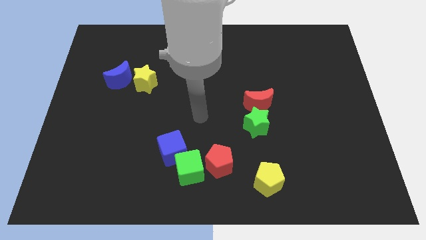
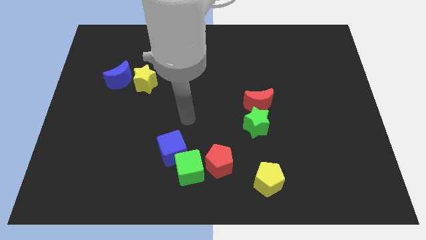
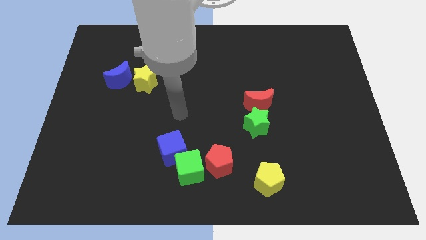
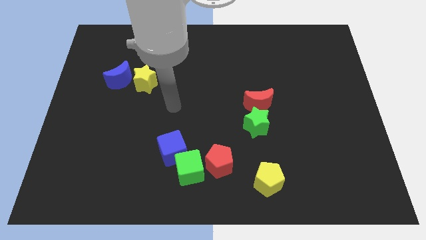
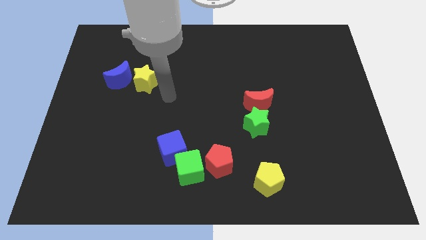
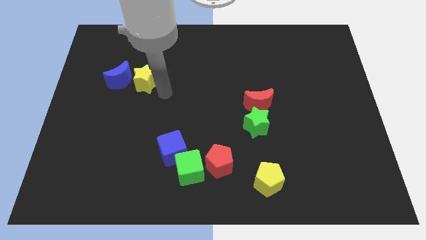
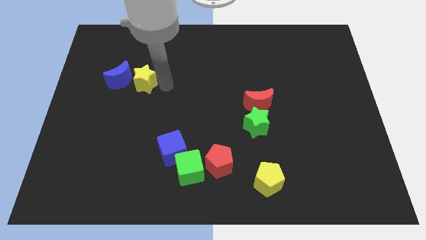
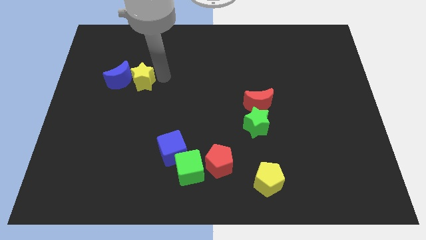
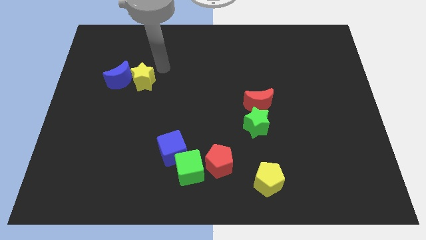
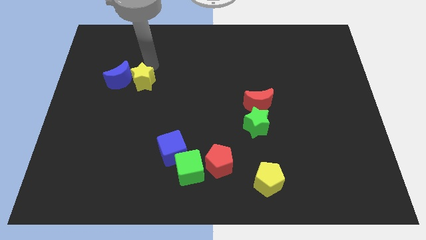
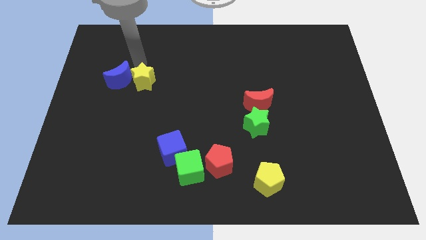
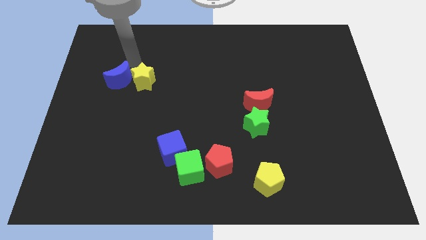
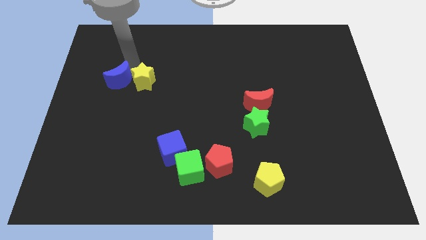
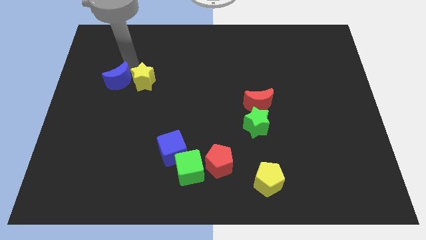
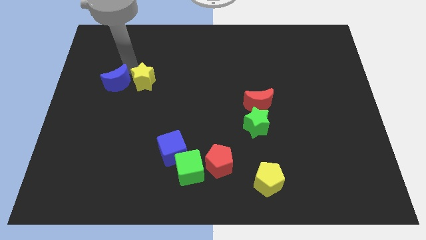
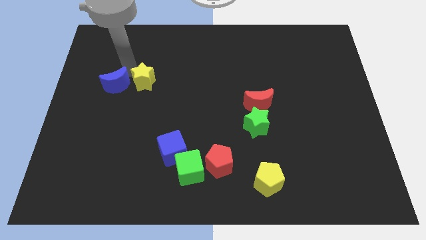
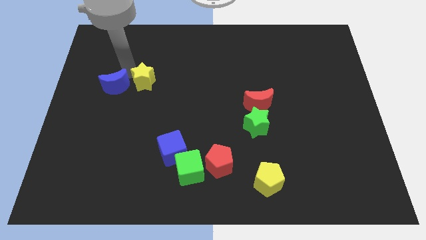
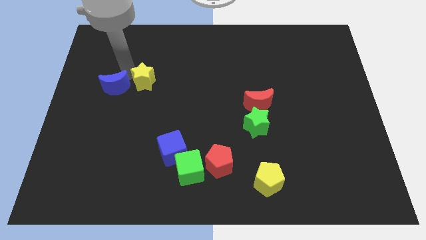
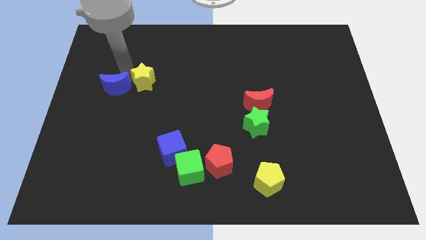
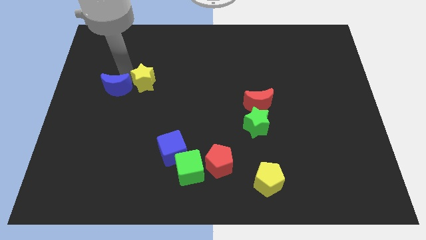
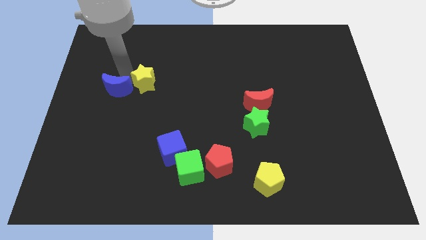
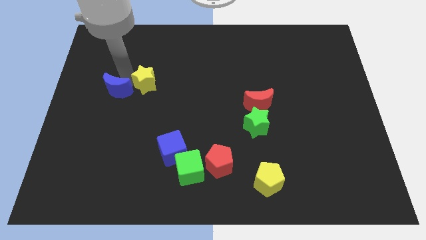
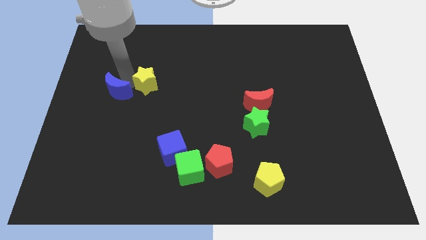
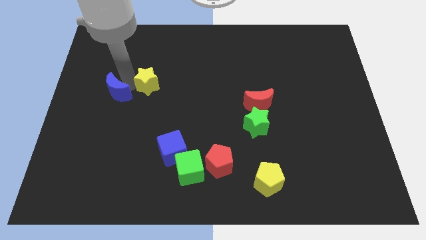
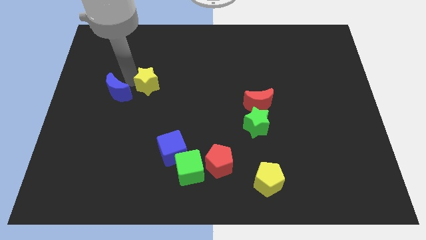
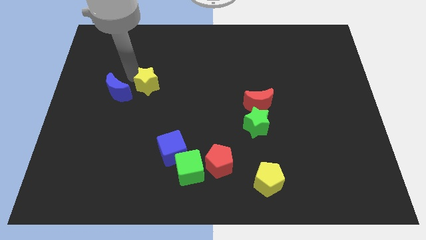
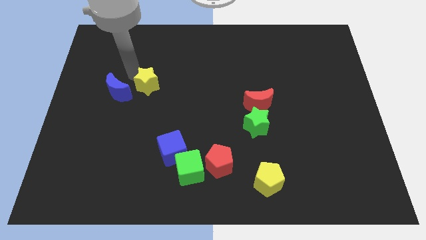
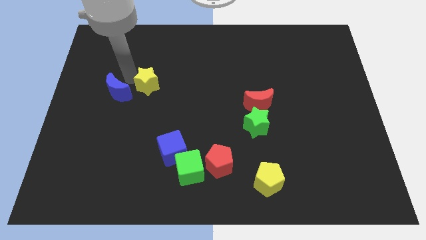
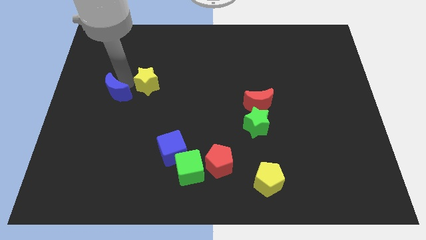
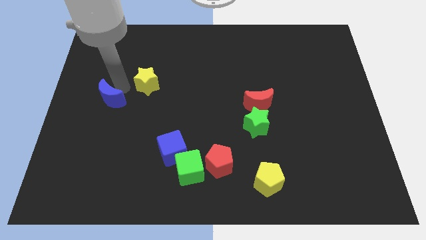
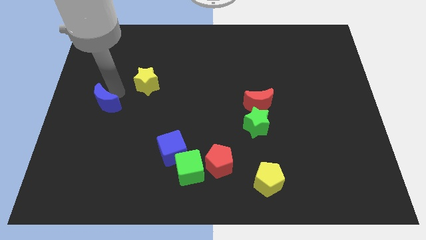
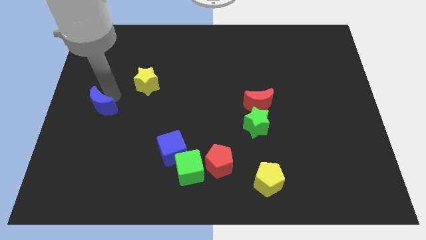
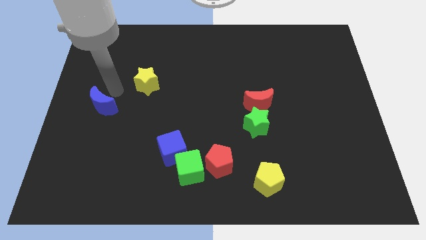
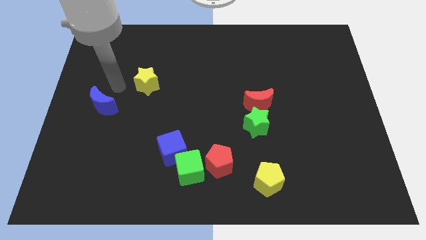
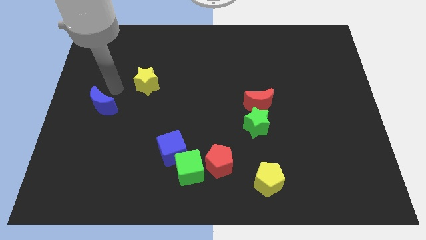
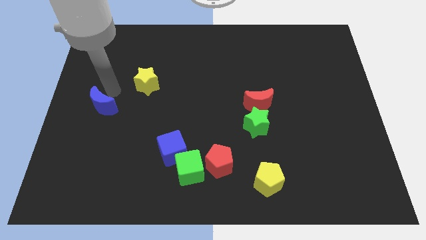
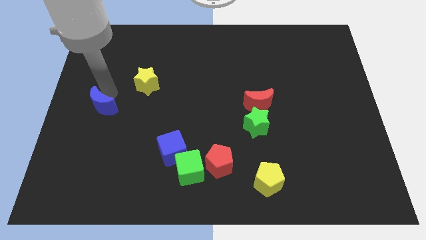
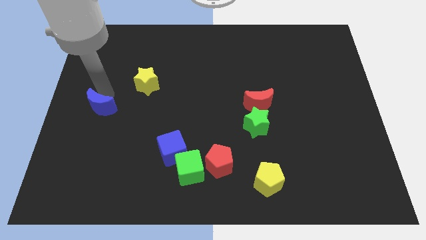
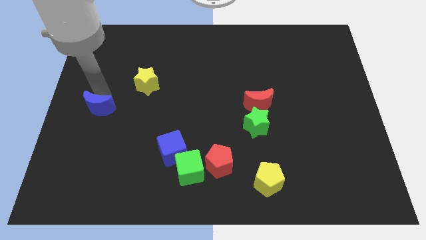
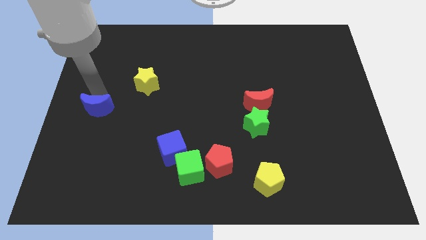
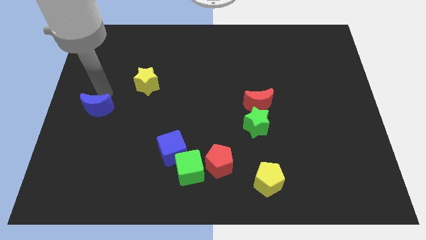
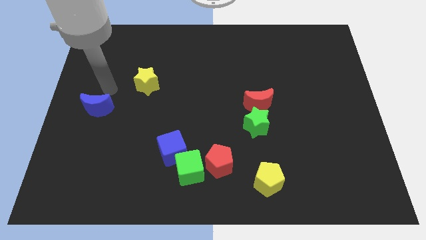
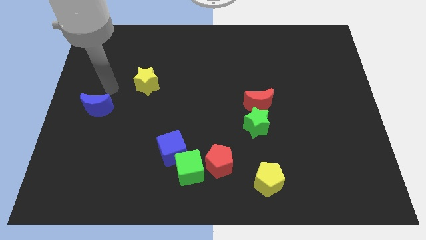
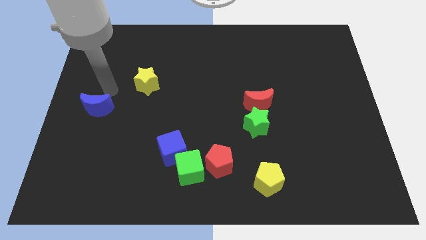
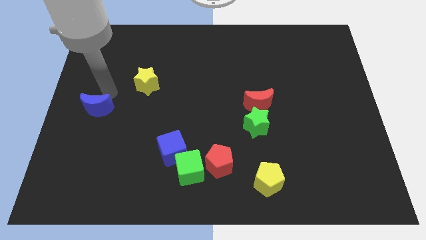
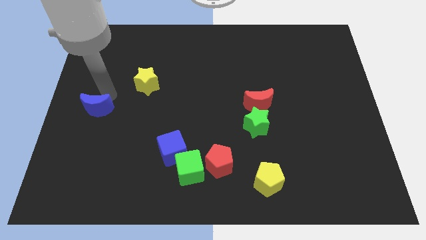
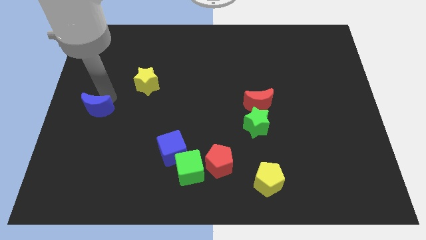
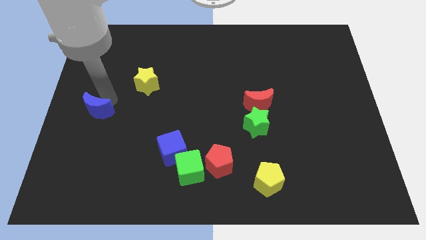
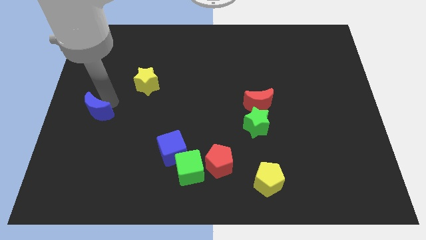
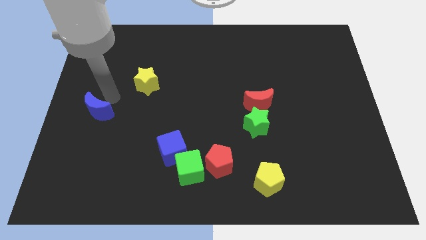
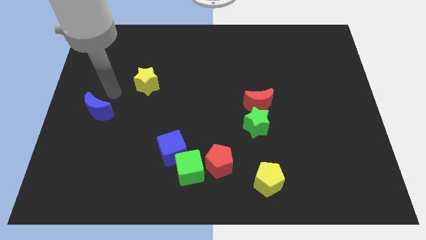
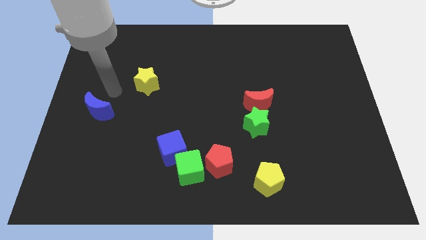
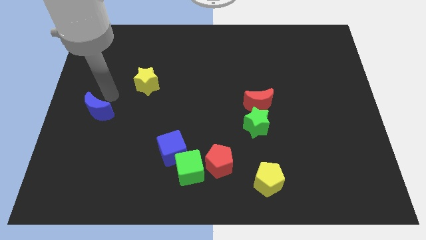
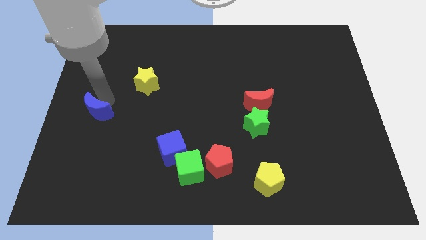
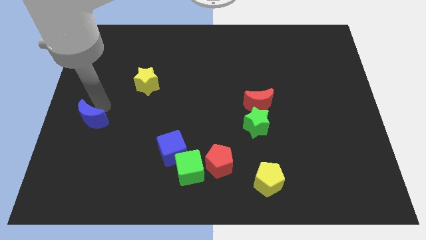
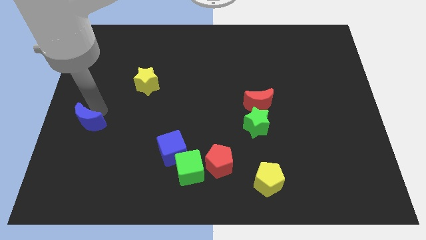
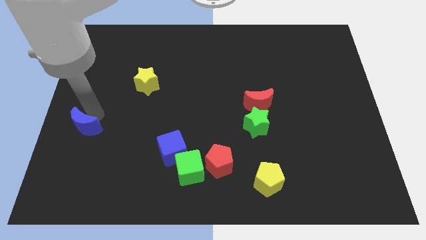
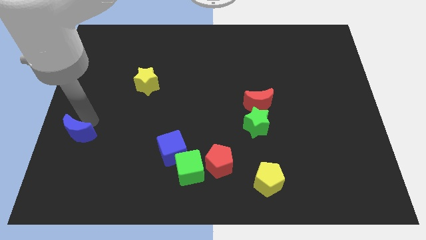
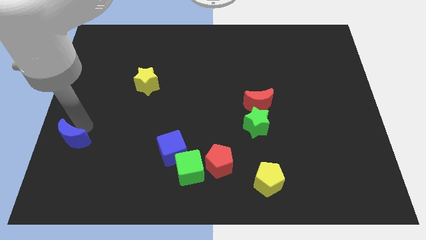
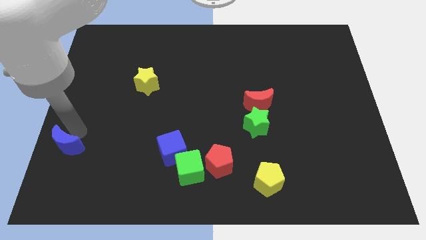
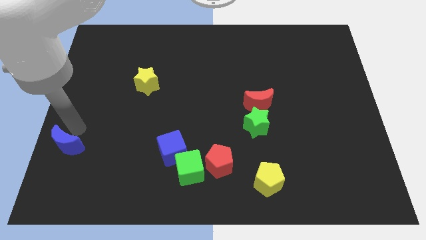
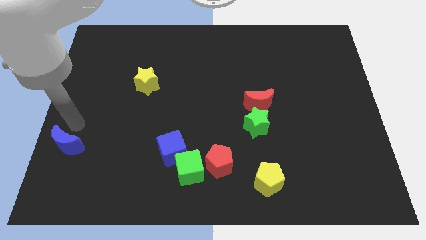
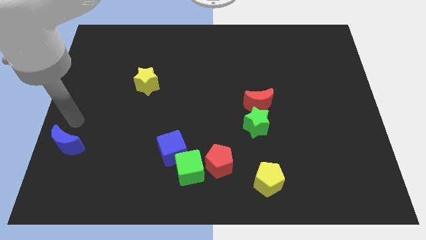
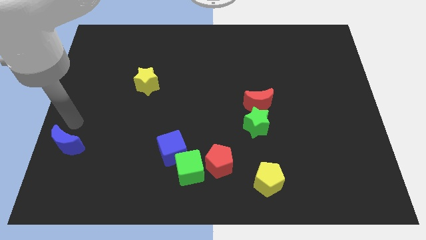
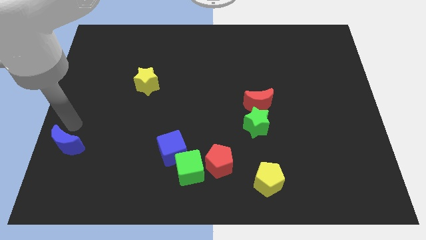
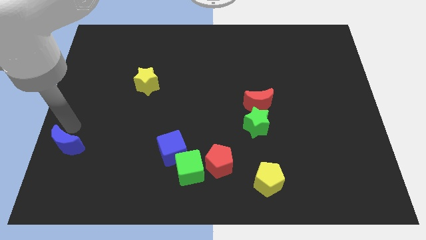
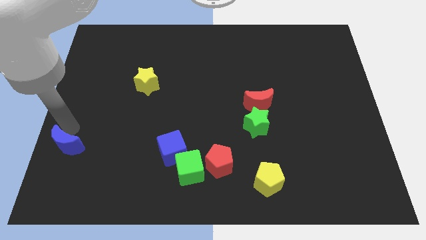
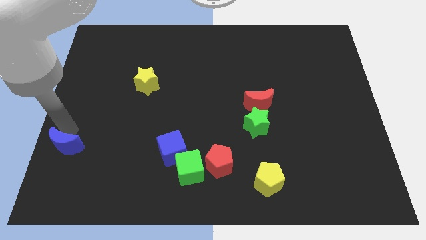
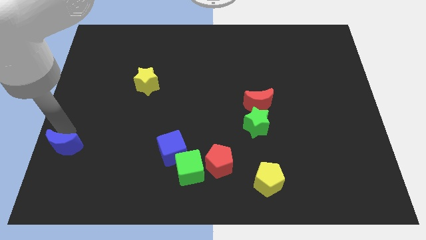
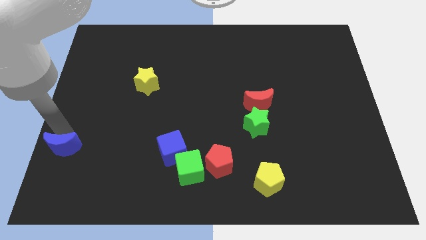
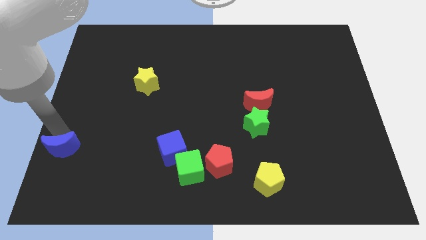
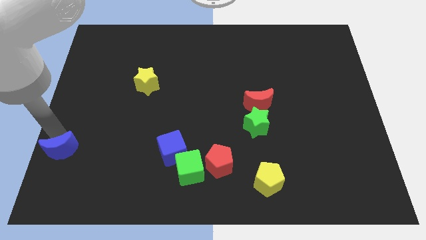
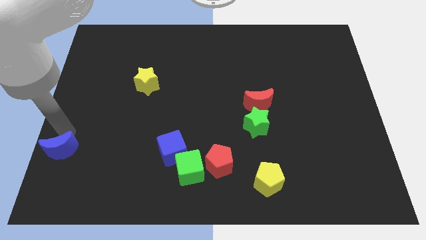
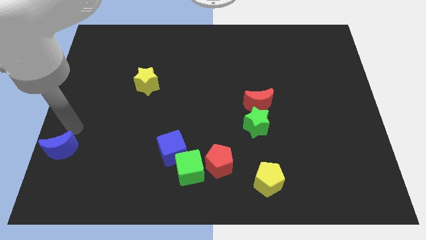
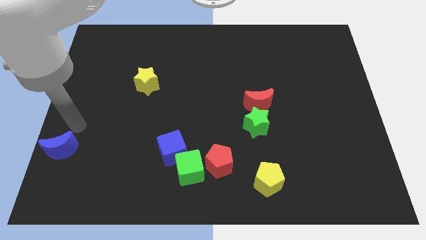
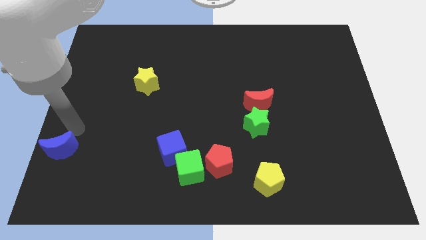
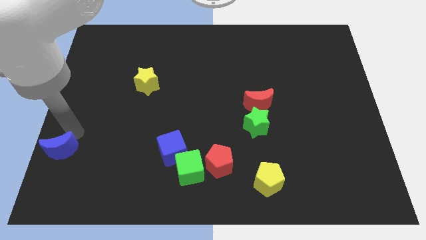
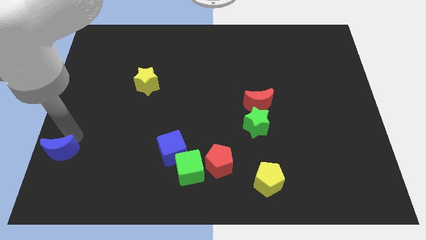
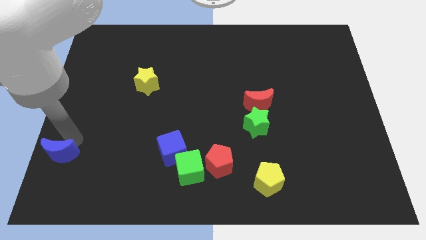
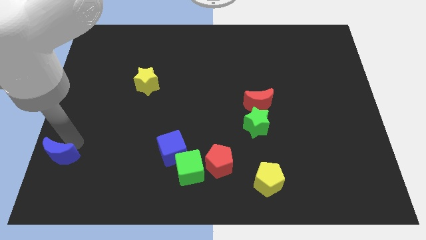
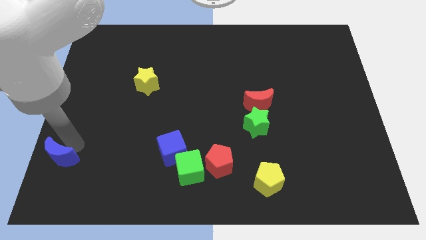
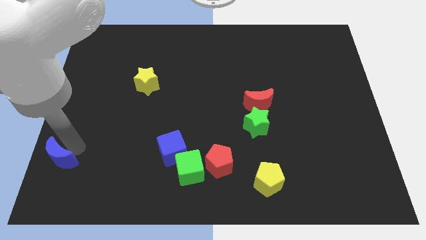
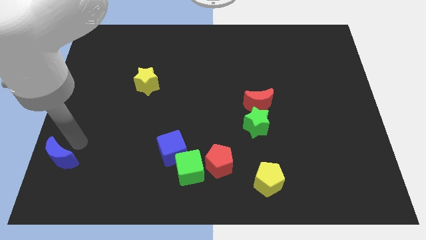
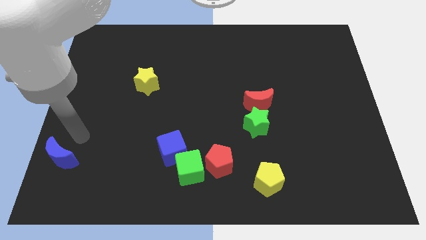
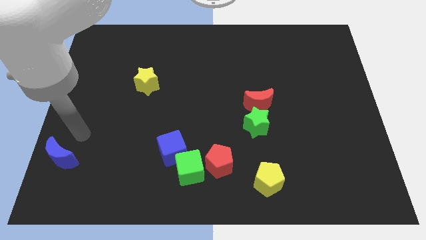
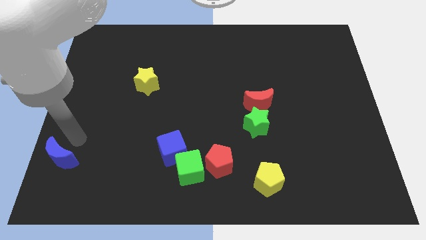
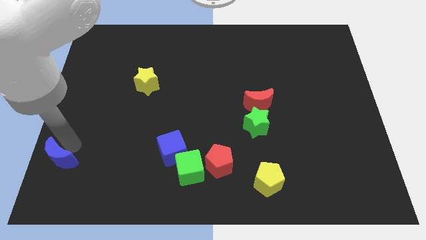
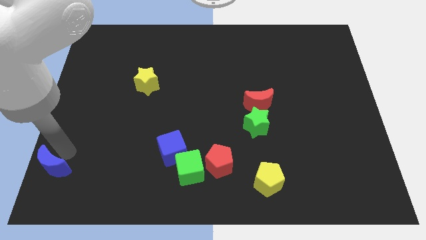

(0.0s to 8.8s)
slide the blue moon to the bottom left corner
